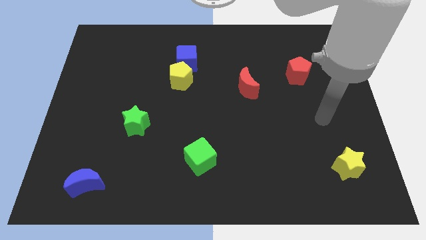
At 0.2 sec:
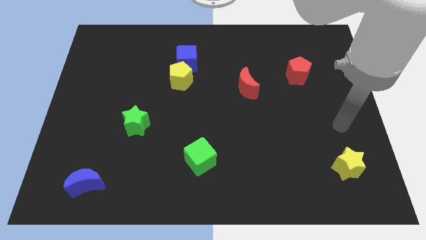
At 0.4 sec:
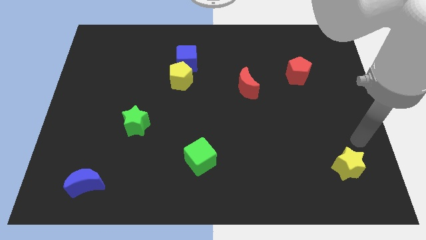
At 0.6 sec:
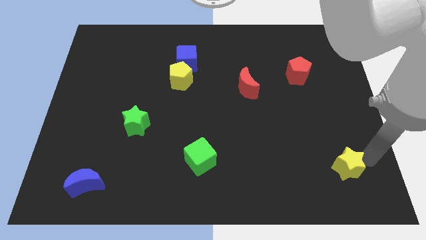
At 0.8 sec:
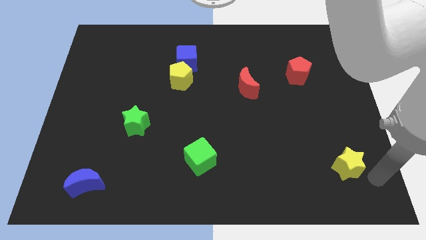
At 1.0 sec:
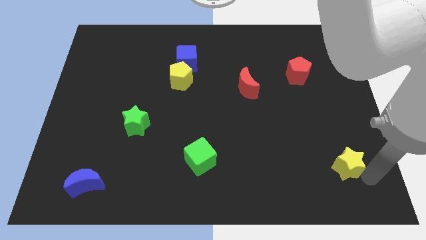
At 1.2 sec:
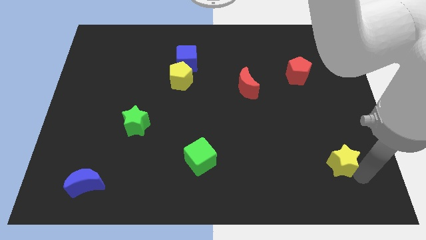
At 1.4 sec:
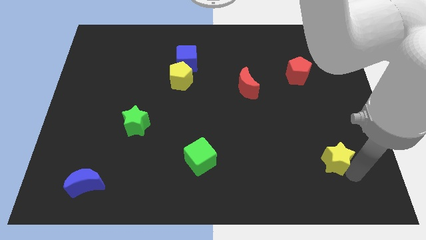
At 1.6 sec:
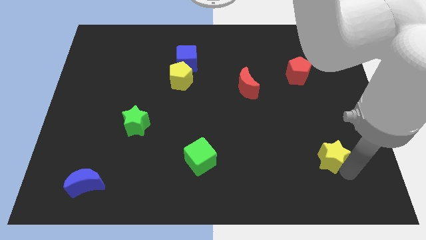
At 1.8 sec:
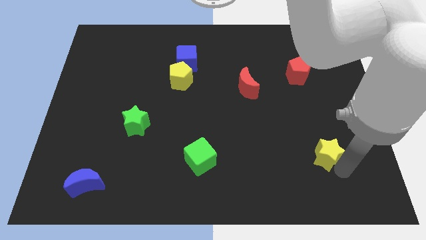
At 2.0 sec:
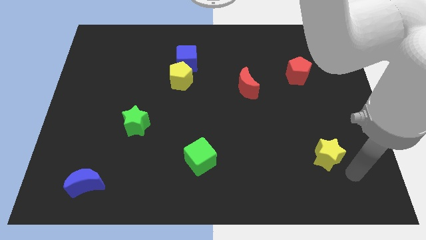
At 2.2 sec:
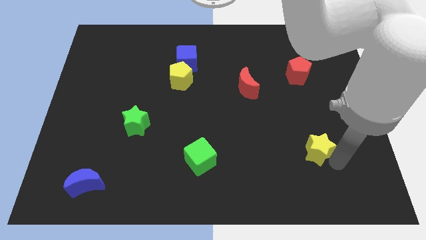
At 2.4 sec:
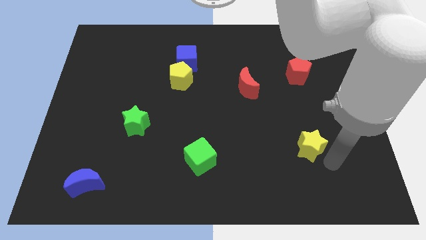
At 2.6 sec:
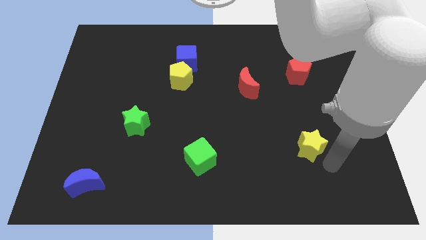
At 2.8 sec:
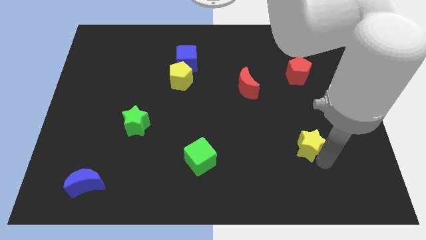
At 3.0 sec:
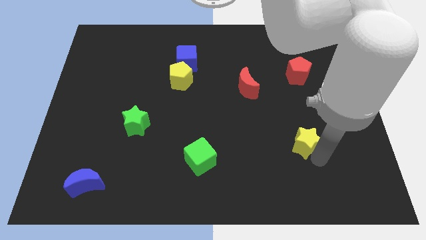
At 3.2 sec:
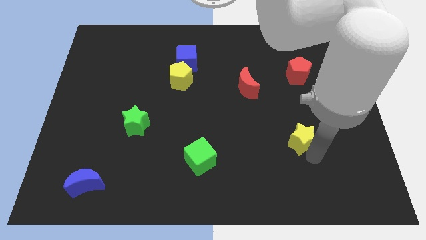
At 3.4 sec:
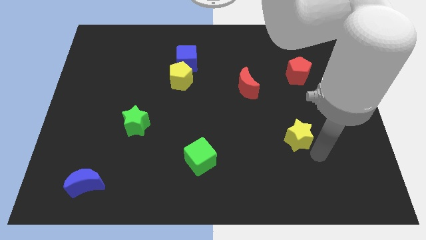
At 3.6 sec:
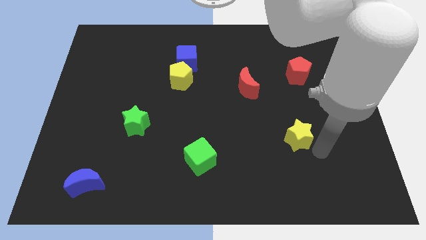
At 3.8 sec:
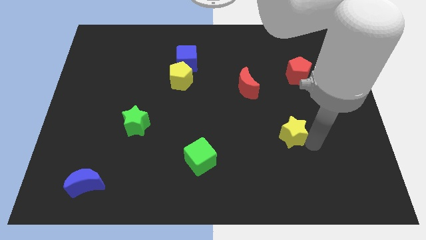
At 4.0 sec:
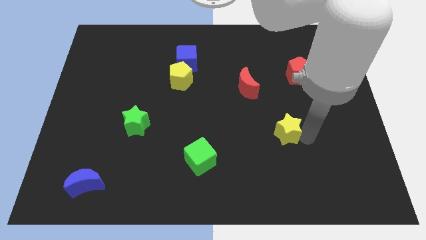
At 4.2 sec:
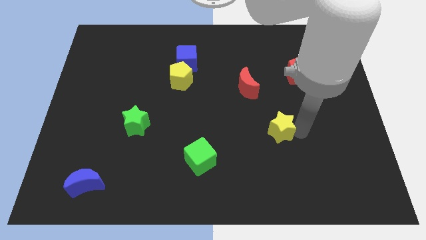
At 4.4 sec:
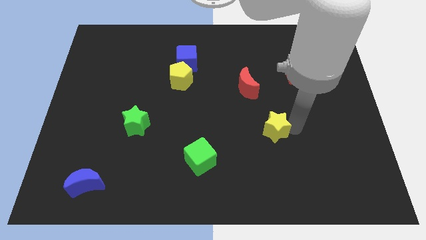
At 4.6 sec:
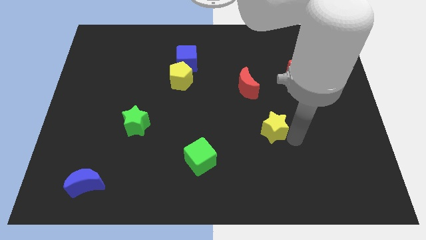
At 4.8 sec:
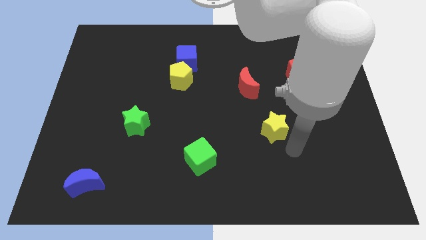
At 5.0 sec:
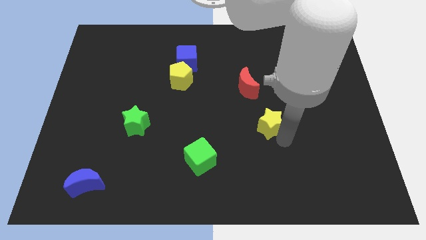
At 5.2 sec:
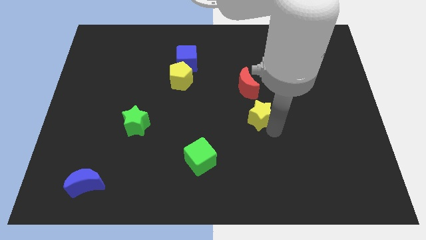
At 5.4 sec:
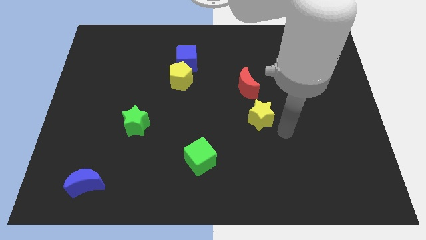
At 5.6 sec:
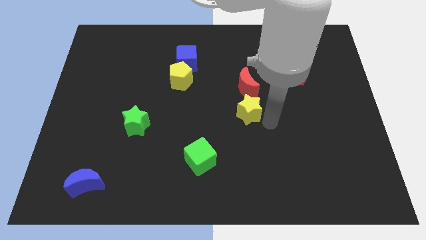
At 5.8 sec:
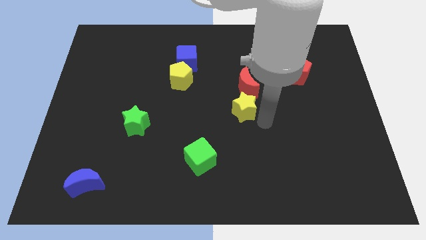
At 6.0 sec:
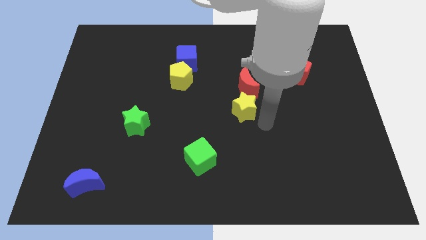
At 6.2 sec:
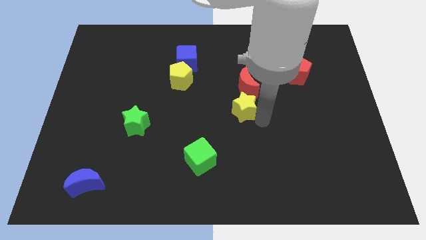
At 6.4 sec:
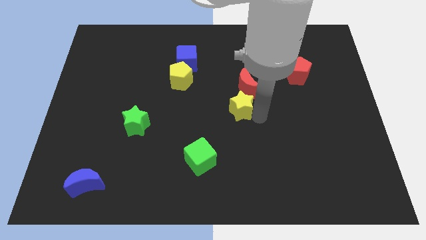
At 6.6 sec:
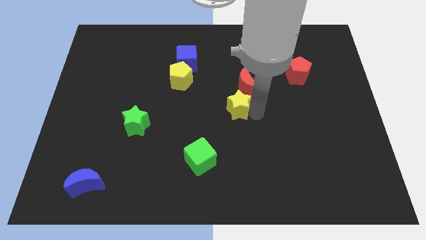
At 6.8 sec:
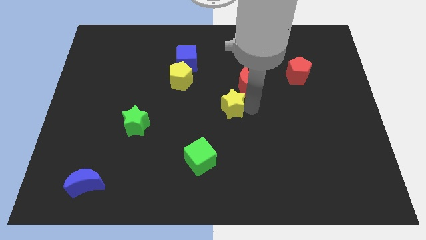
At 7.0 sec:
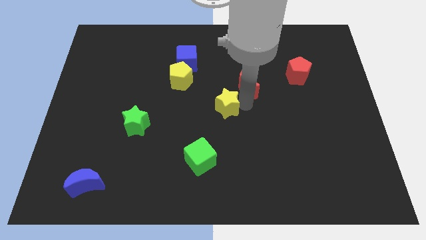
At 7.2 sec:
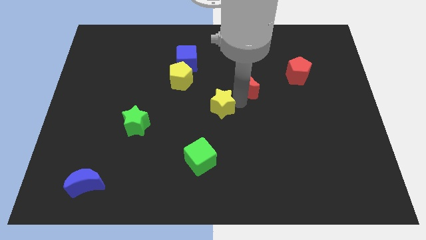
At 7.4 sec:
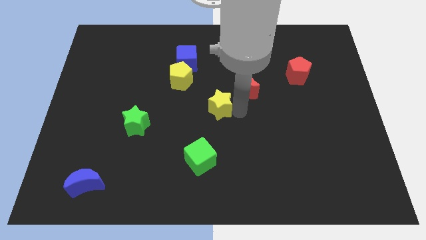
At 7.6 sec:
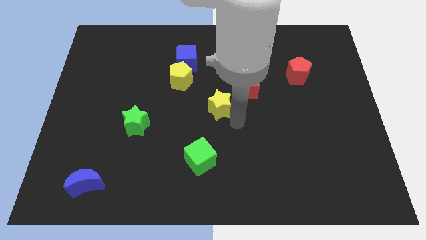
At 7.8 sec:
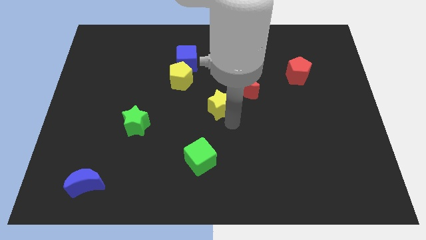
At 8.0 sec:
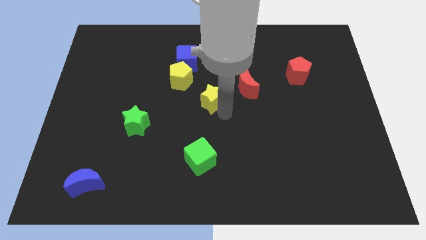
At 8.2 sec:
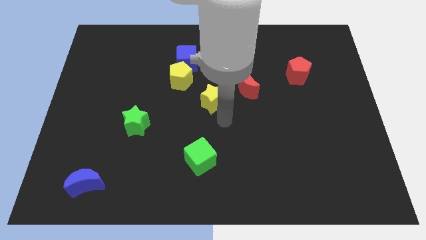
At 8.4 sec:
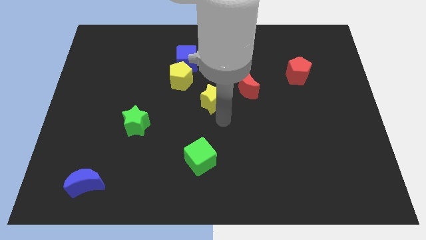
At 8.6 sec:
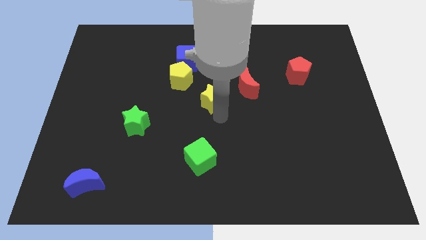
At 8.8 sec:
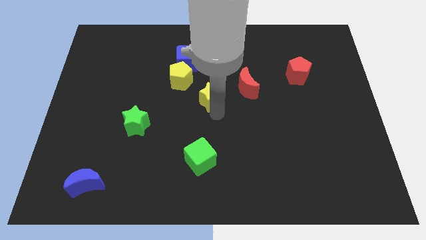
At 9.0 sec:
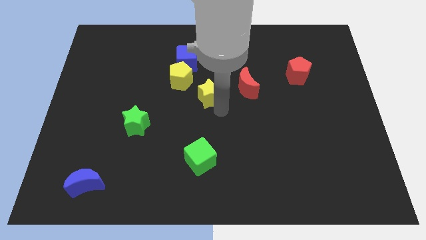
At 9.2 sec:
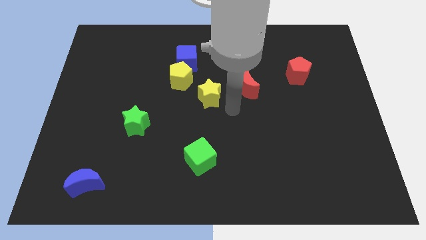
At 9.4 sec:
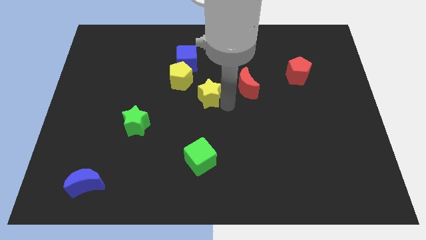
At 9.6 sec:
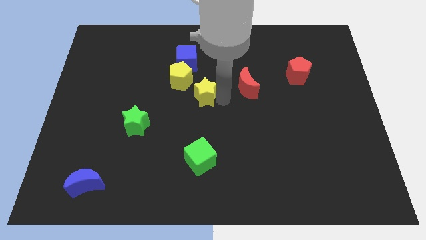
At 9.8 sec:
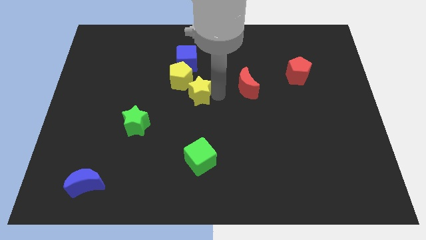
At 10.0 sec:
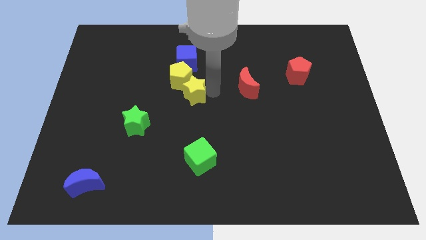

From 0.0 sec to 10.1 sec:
push the yellow star close to the yellow pentagon

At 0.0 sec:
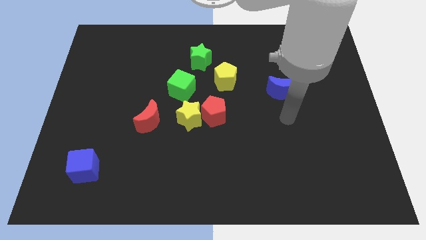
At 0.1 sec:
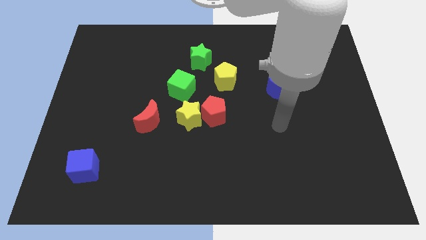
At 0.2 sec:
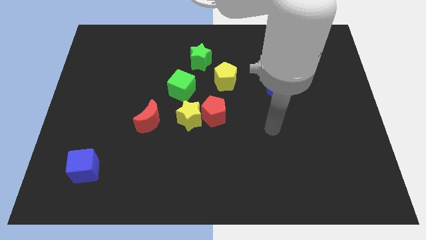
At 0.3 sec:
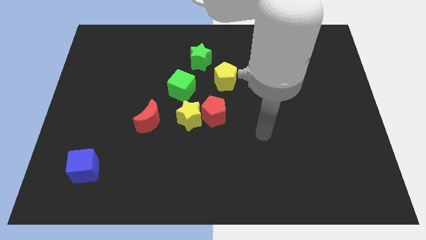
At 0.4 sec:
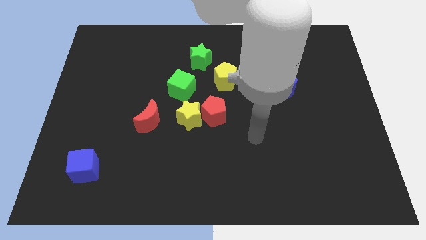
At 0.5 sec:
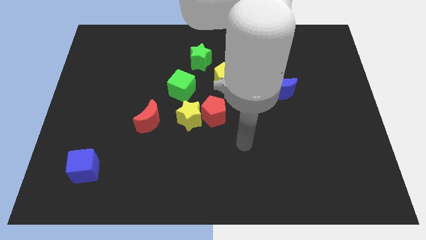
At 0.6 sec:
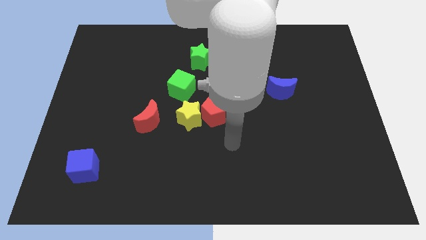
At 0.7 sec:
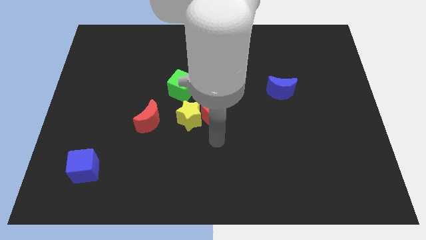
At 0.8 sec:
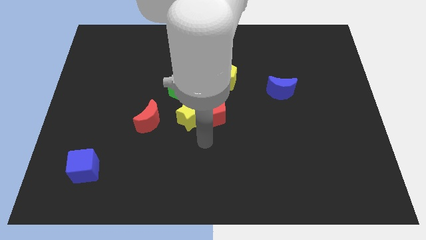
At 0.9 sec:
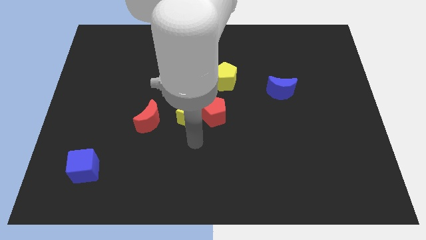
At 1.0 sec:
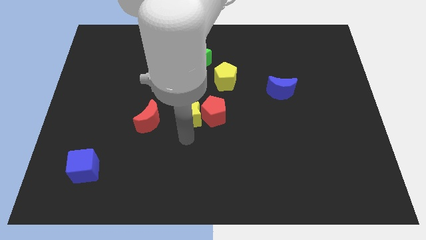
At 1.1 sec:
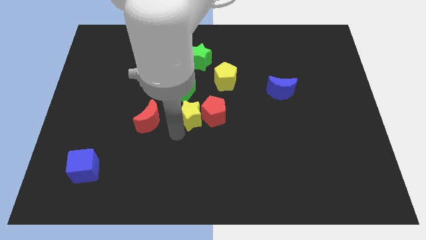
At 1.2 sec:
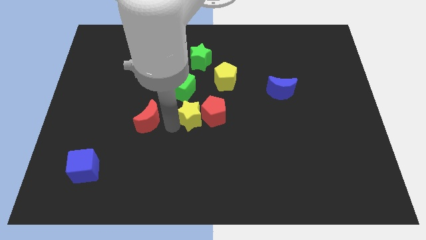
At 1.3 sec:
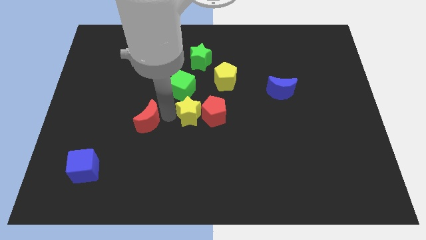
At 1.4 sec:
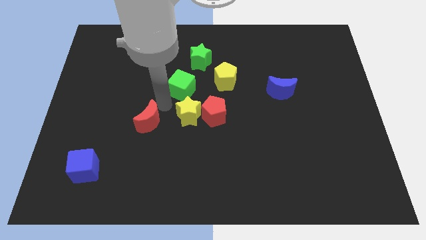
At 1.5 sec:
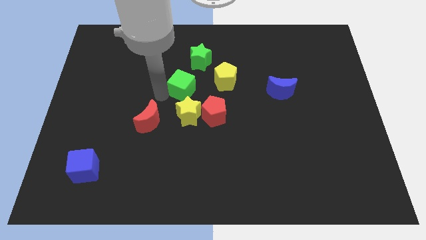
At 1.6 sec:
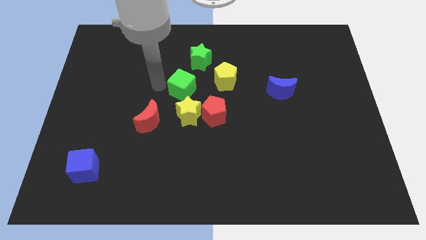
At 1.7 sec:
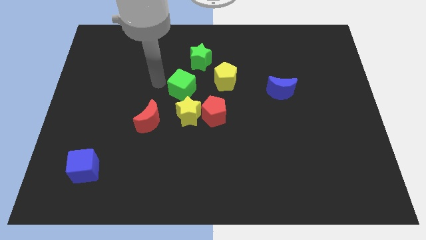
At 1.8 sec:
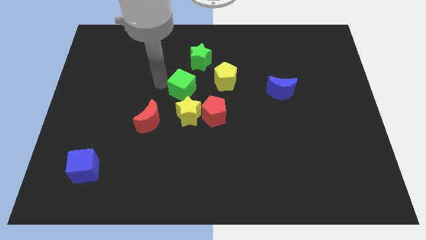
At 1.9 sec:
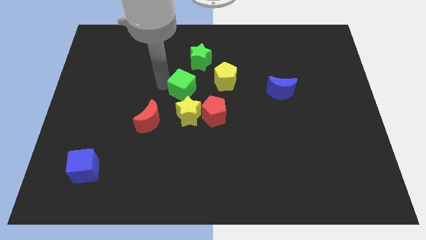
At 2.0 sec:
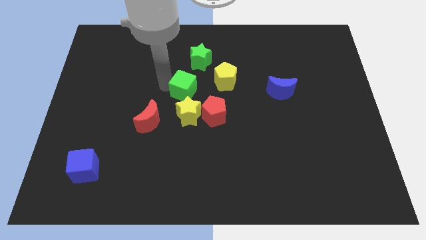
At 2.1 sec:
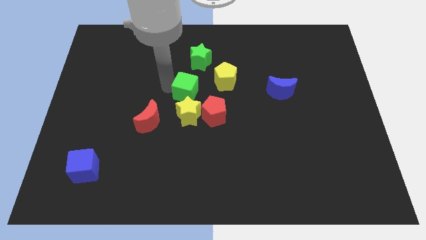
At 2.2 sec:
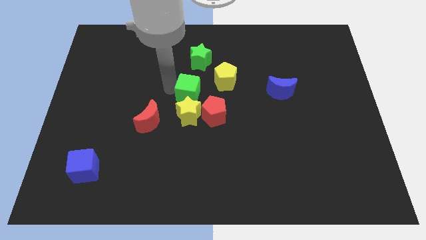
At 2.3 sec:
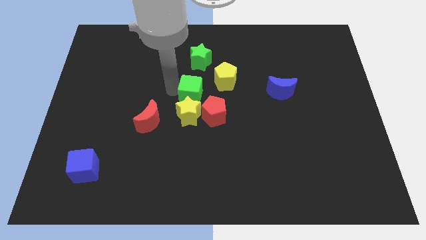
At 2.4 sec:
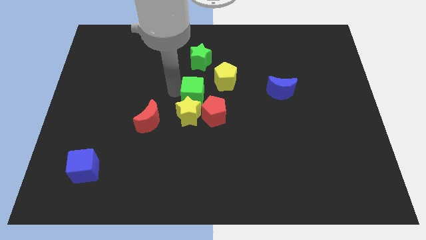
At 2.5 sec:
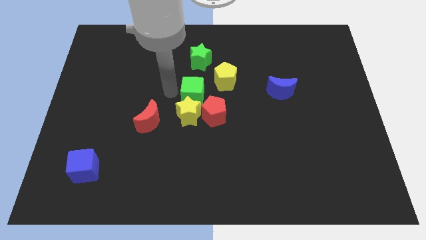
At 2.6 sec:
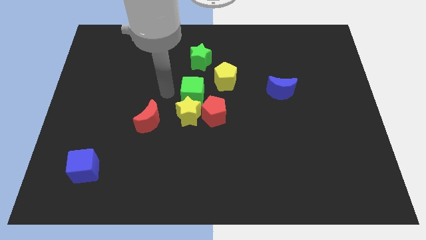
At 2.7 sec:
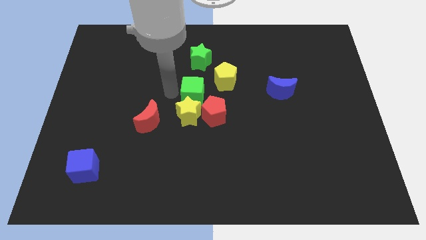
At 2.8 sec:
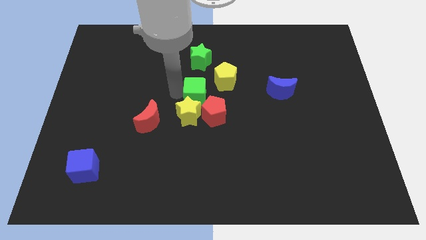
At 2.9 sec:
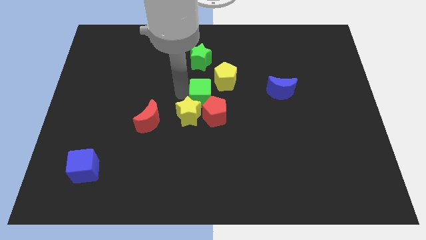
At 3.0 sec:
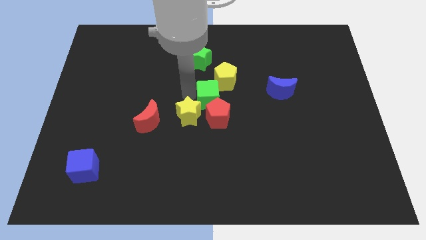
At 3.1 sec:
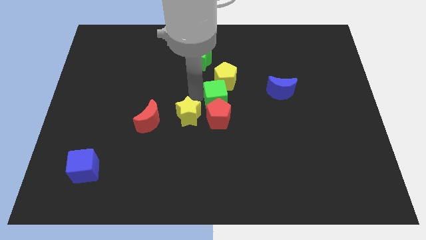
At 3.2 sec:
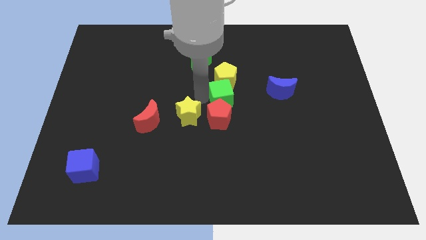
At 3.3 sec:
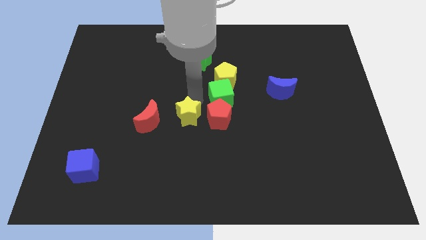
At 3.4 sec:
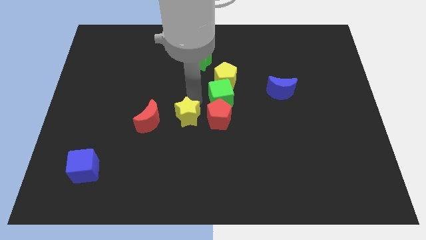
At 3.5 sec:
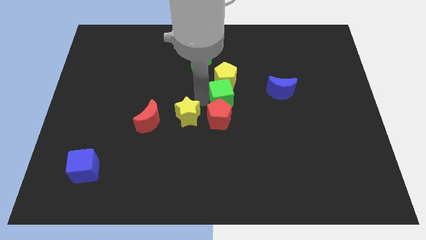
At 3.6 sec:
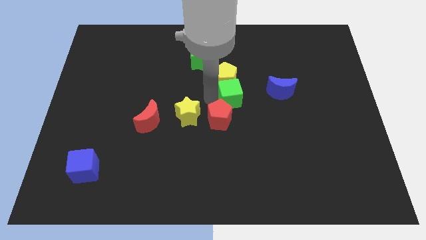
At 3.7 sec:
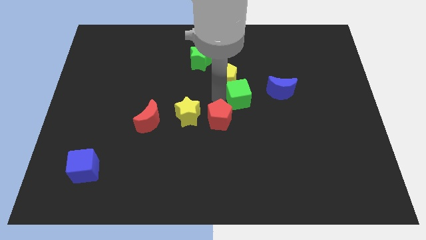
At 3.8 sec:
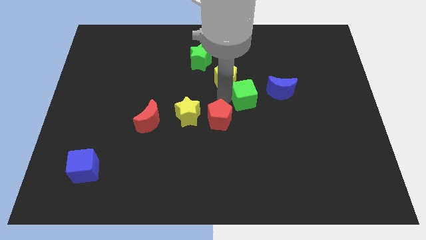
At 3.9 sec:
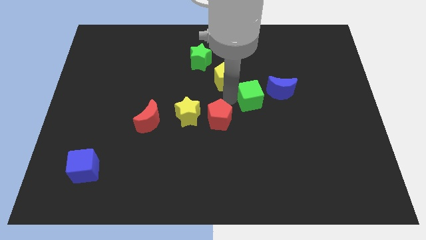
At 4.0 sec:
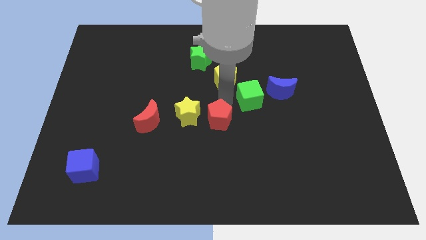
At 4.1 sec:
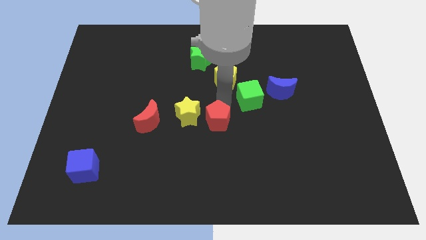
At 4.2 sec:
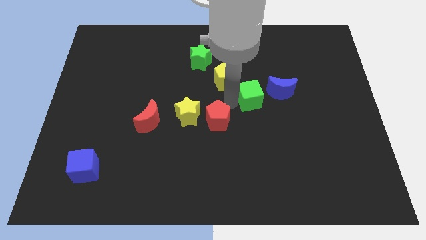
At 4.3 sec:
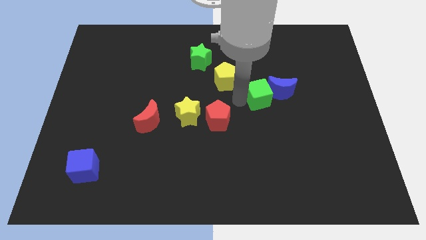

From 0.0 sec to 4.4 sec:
push the green cube to the blue moon
